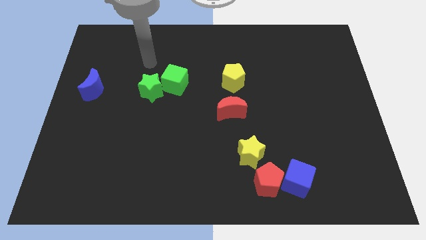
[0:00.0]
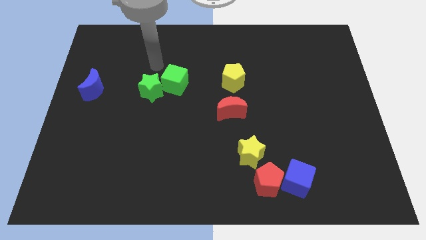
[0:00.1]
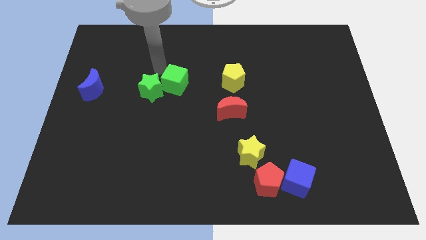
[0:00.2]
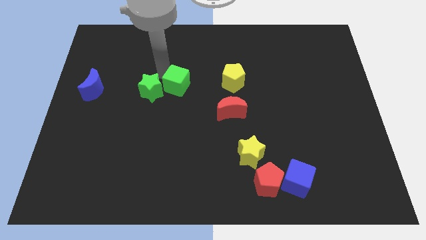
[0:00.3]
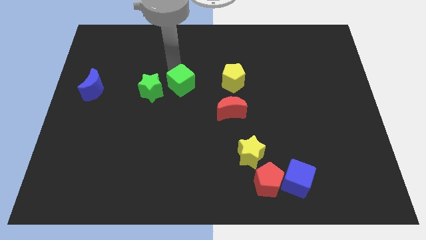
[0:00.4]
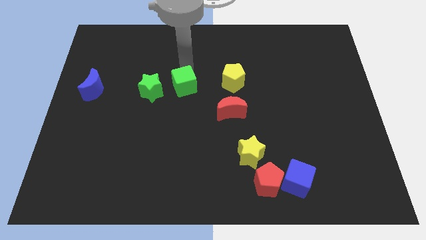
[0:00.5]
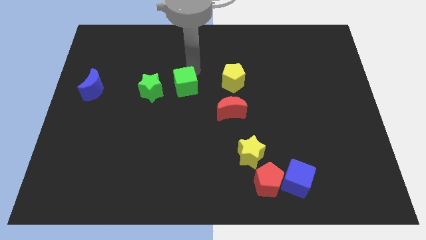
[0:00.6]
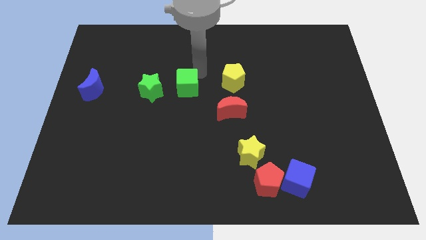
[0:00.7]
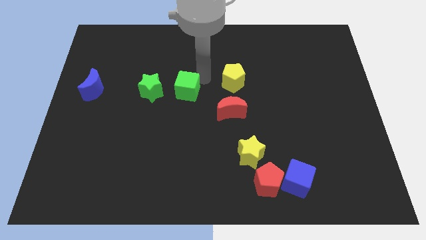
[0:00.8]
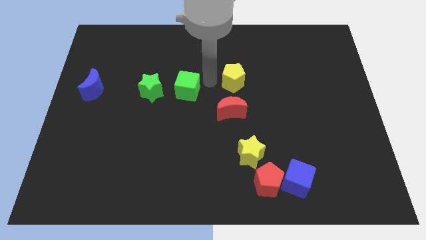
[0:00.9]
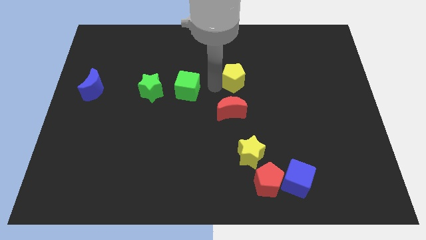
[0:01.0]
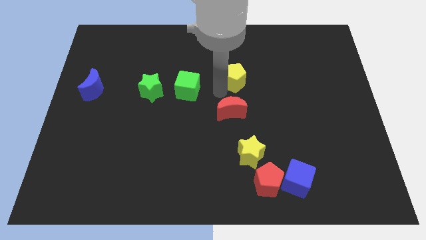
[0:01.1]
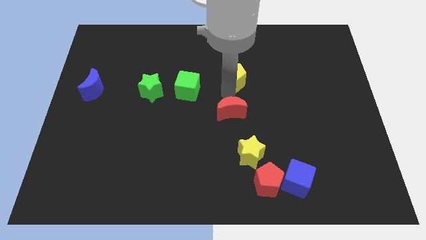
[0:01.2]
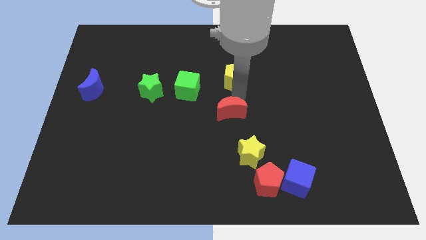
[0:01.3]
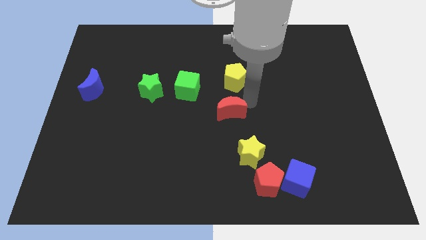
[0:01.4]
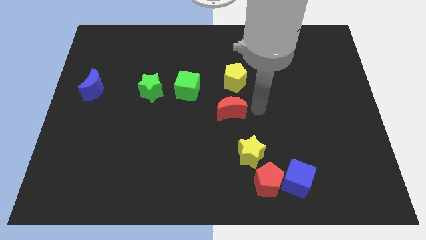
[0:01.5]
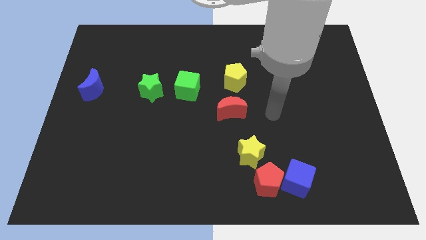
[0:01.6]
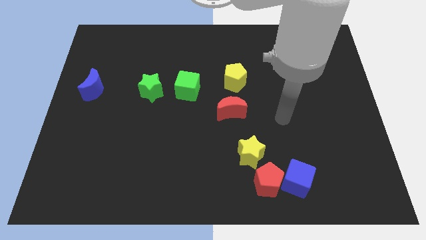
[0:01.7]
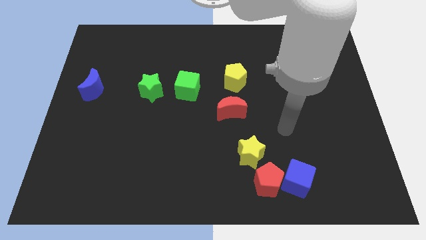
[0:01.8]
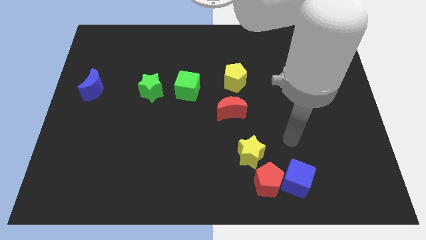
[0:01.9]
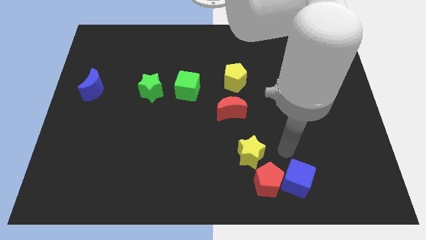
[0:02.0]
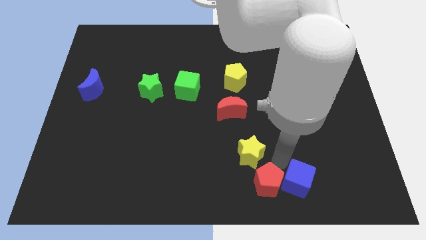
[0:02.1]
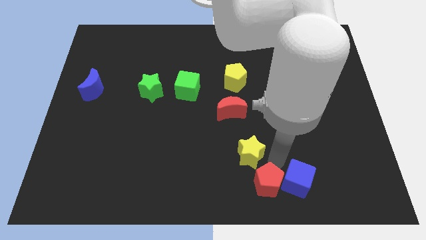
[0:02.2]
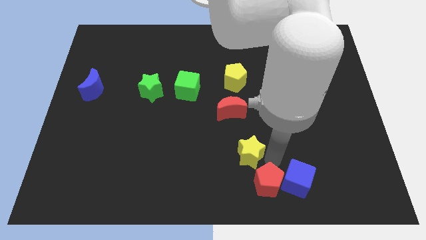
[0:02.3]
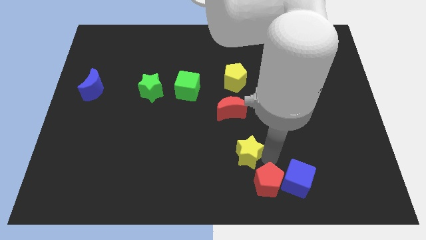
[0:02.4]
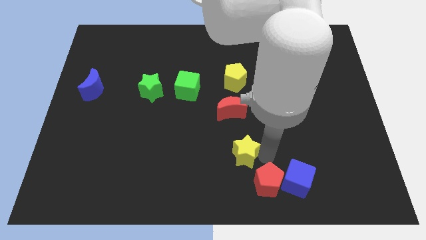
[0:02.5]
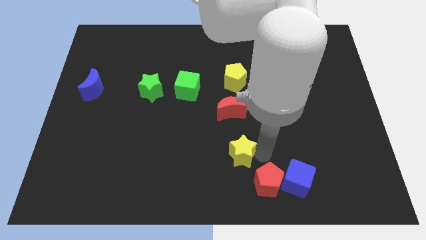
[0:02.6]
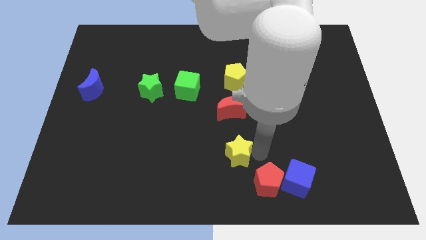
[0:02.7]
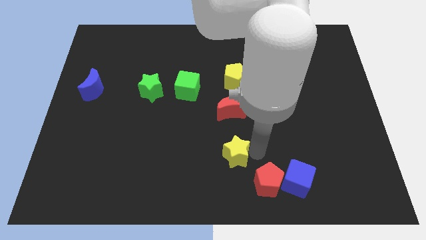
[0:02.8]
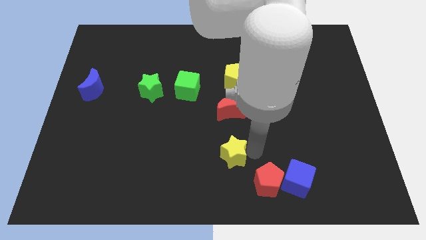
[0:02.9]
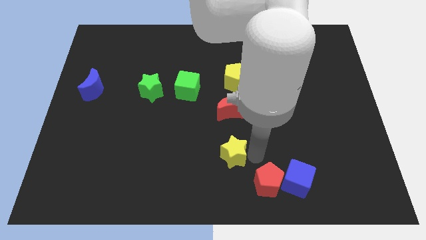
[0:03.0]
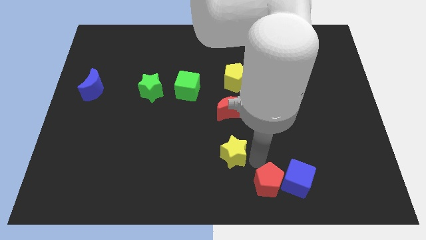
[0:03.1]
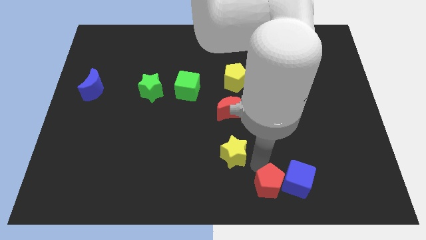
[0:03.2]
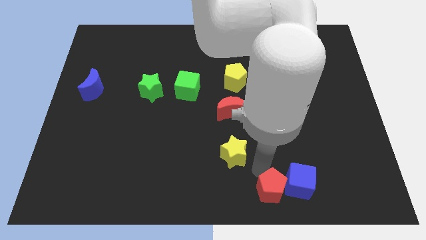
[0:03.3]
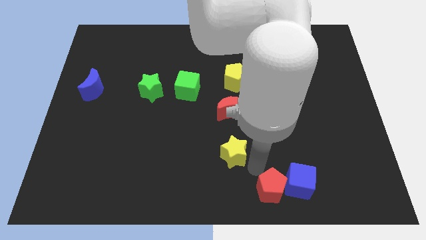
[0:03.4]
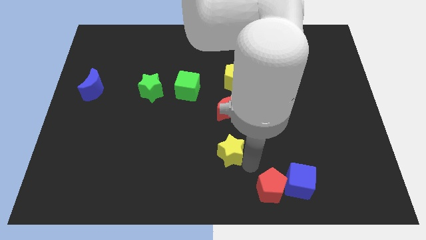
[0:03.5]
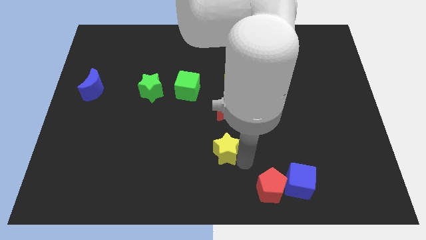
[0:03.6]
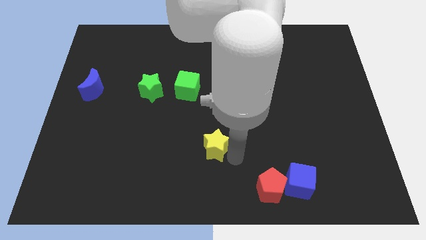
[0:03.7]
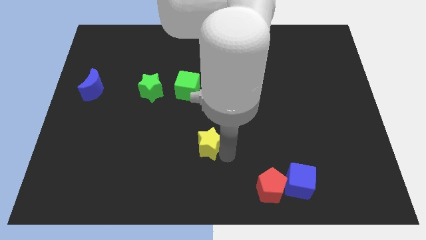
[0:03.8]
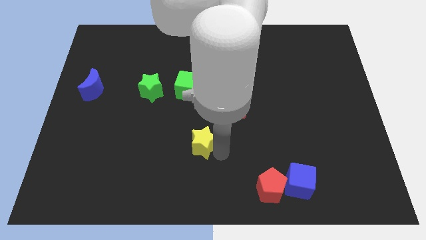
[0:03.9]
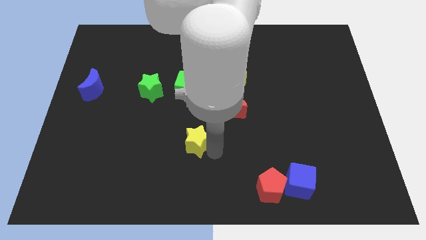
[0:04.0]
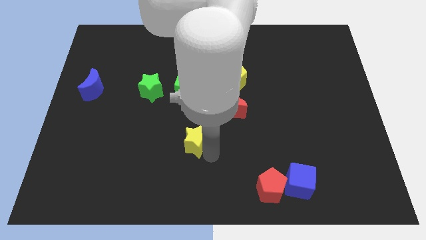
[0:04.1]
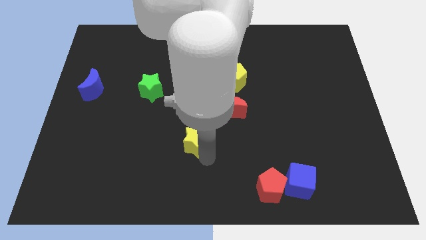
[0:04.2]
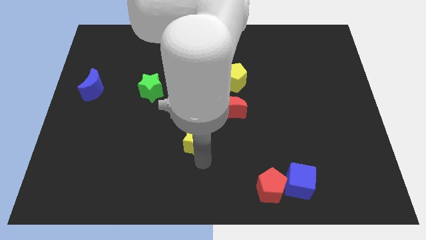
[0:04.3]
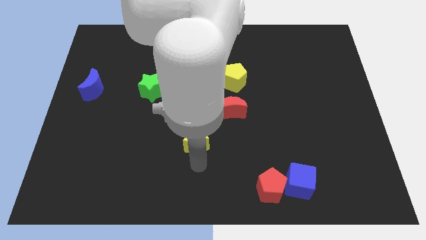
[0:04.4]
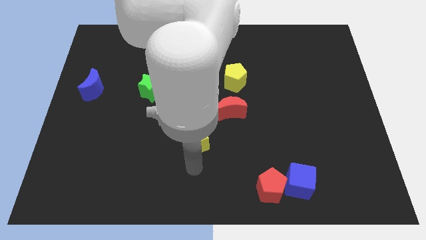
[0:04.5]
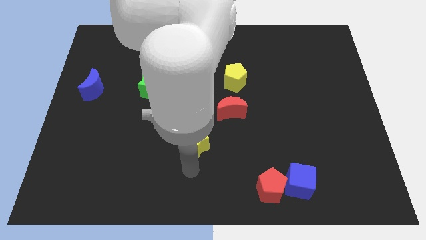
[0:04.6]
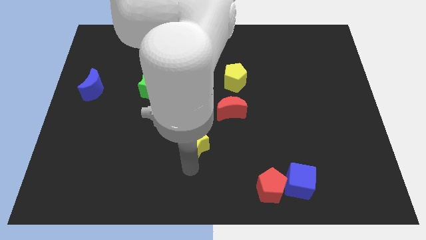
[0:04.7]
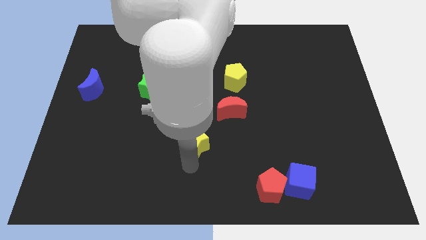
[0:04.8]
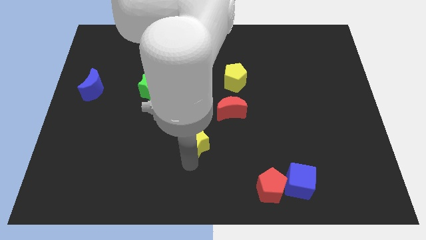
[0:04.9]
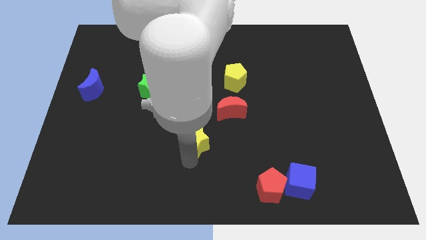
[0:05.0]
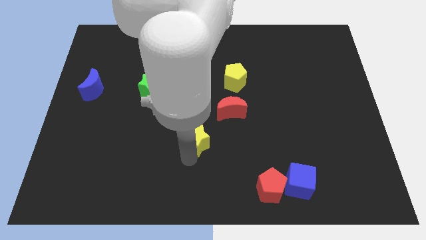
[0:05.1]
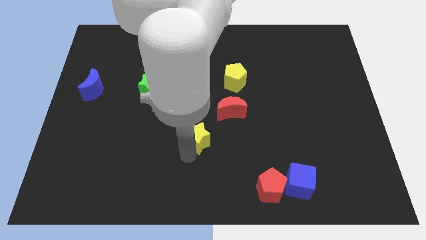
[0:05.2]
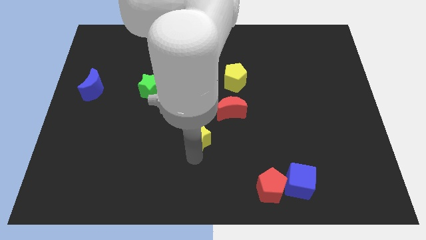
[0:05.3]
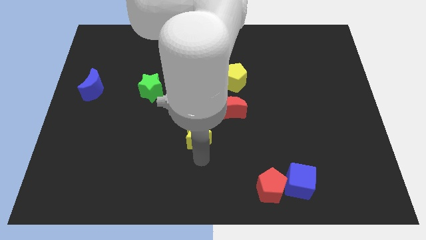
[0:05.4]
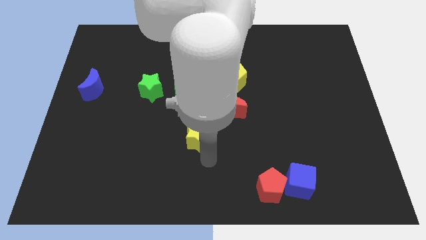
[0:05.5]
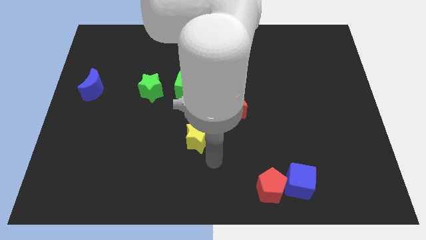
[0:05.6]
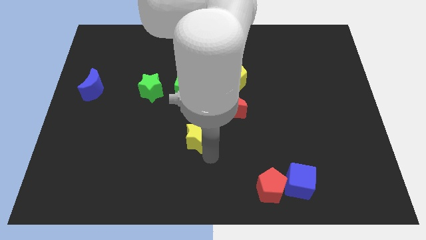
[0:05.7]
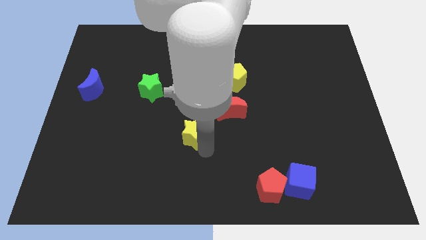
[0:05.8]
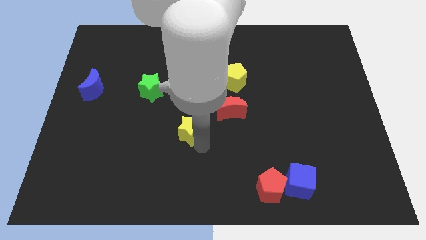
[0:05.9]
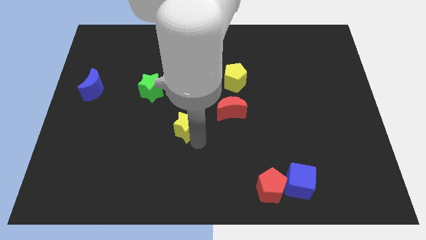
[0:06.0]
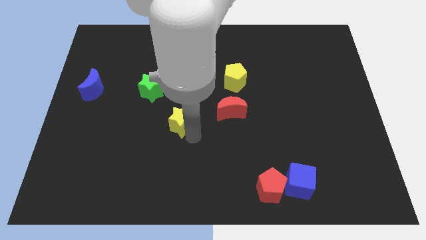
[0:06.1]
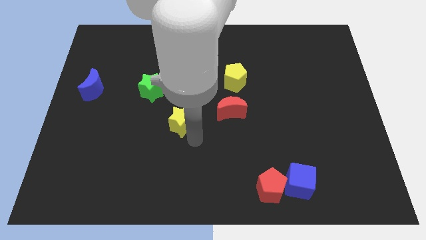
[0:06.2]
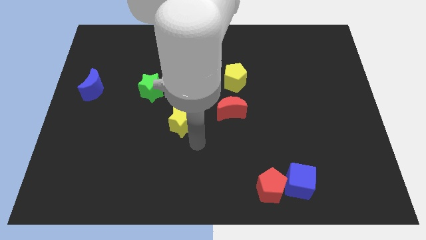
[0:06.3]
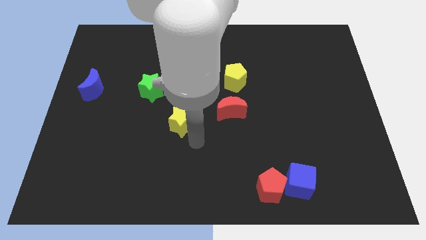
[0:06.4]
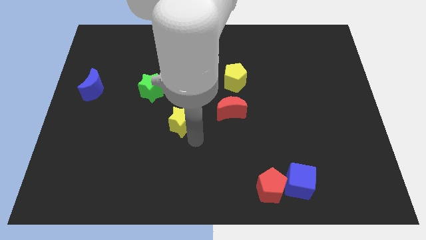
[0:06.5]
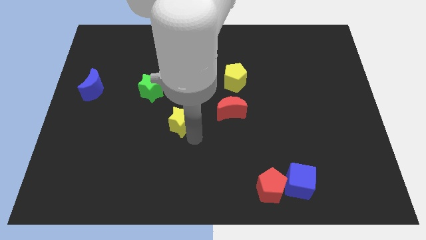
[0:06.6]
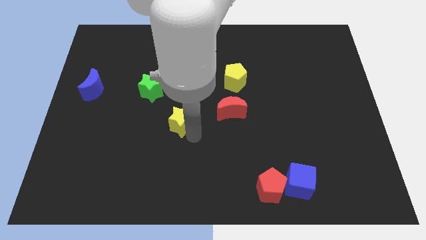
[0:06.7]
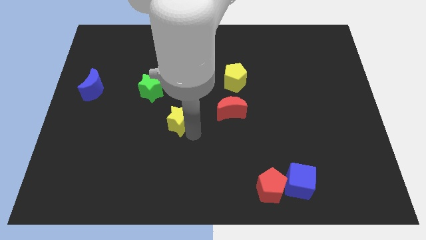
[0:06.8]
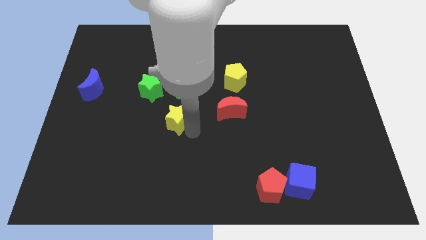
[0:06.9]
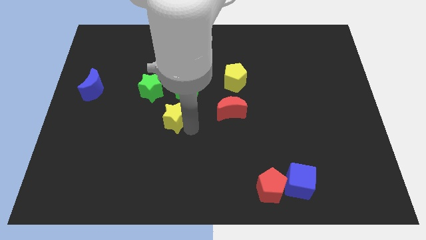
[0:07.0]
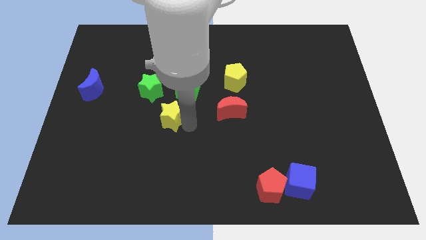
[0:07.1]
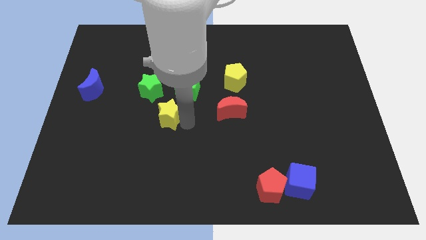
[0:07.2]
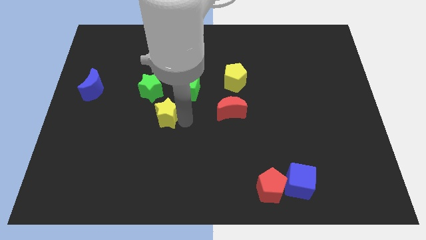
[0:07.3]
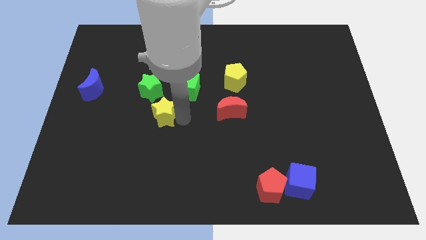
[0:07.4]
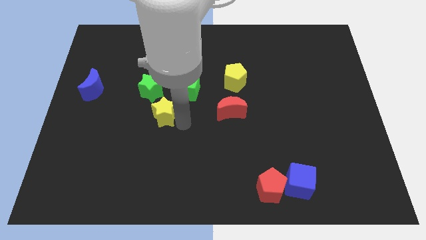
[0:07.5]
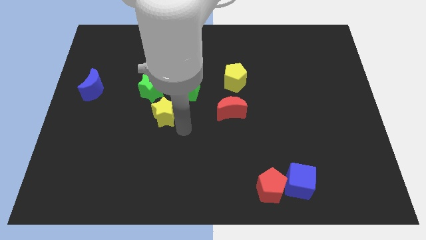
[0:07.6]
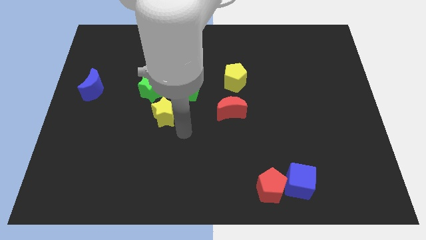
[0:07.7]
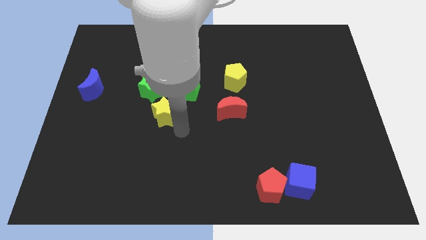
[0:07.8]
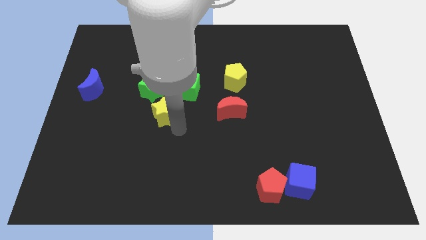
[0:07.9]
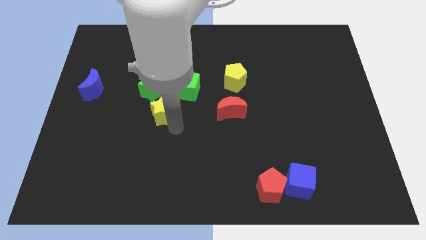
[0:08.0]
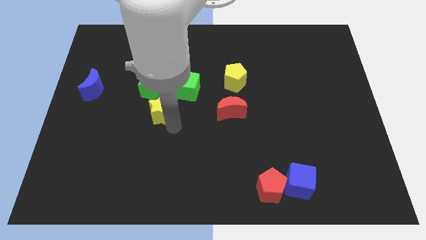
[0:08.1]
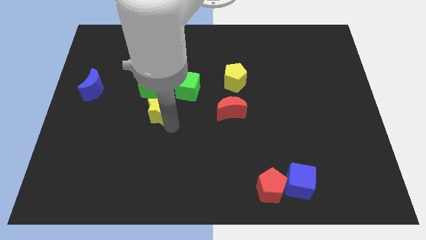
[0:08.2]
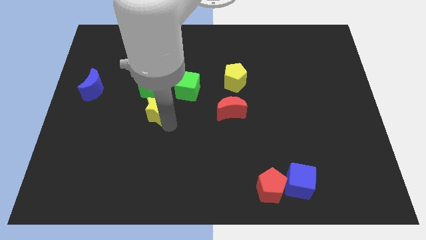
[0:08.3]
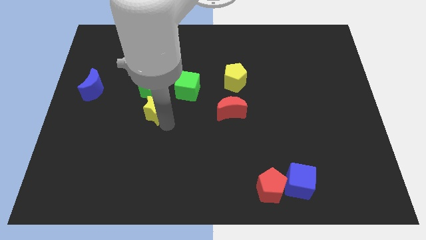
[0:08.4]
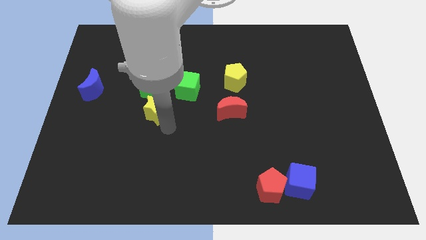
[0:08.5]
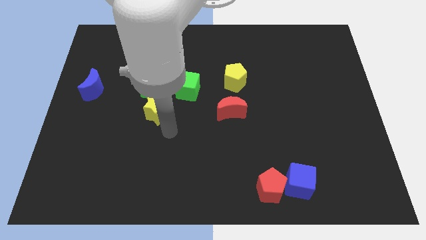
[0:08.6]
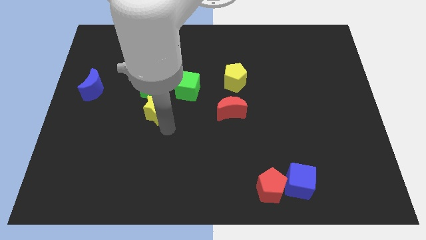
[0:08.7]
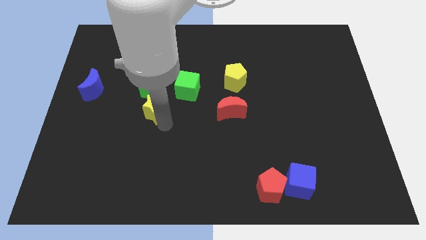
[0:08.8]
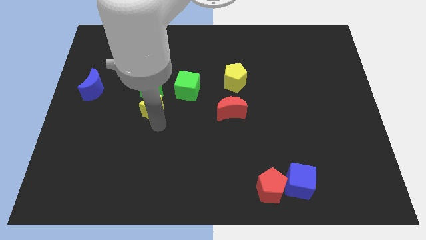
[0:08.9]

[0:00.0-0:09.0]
slide the yellow star next to the green star
